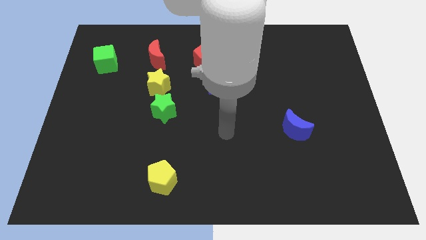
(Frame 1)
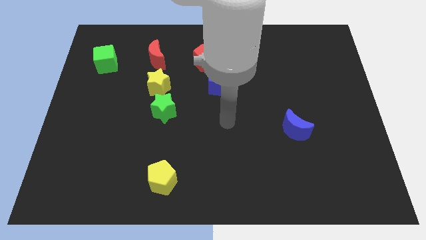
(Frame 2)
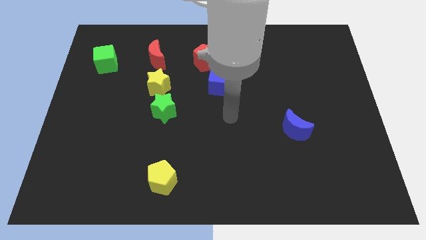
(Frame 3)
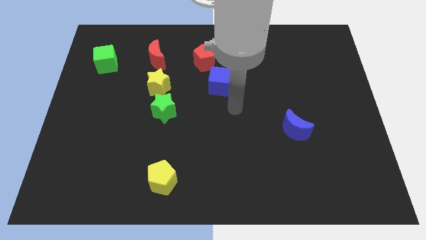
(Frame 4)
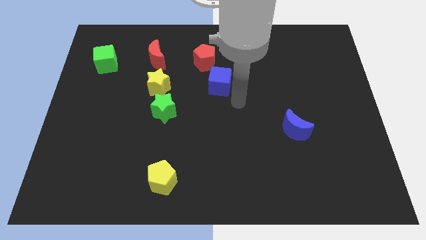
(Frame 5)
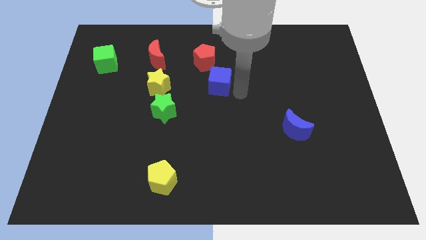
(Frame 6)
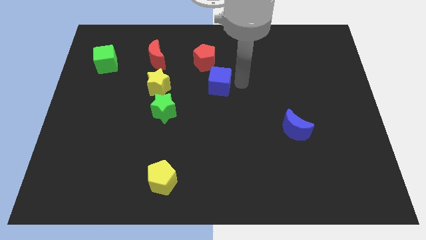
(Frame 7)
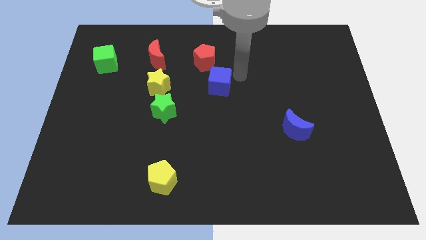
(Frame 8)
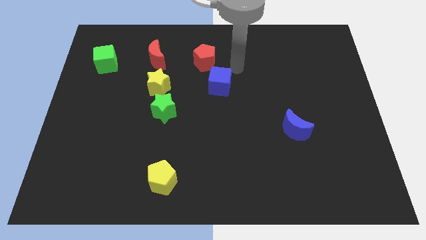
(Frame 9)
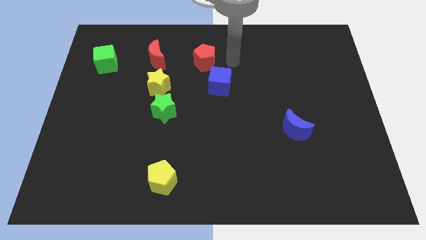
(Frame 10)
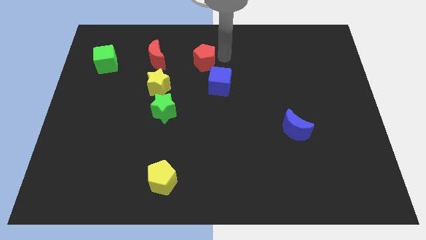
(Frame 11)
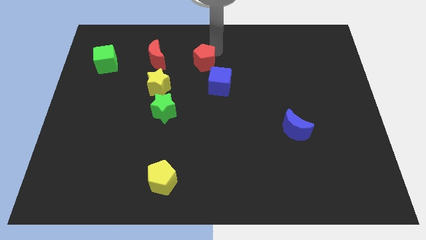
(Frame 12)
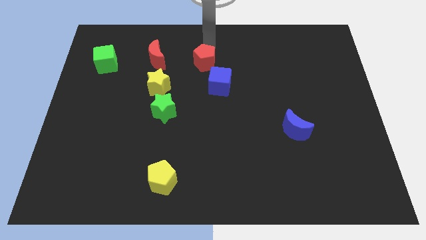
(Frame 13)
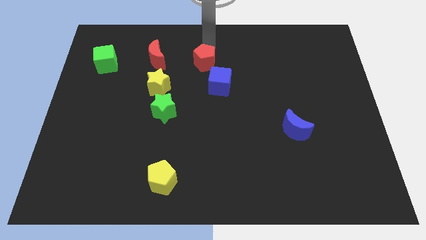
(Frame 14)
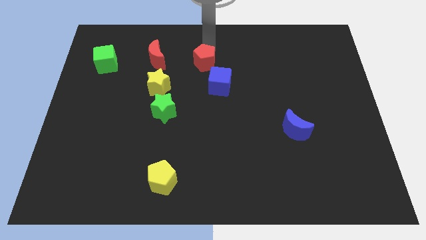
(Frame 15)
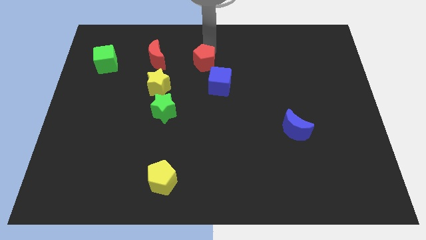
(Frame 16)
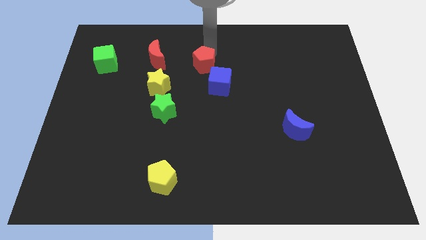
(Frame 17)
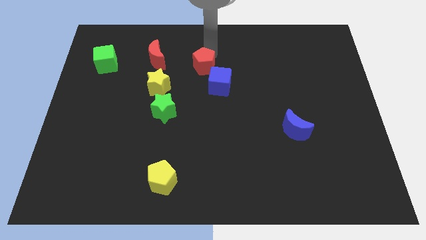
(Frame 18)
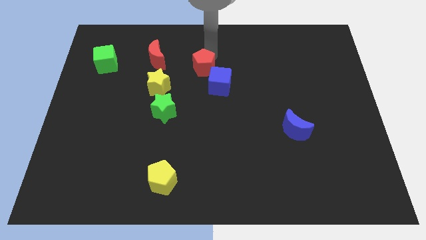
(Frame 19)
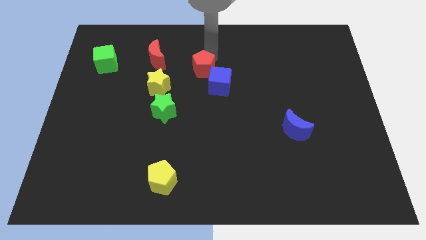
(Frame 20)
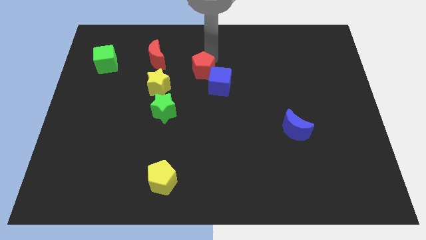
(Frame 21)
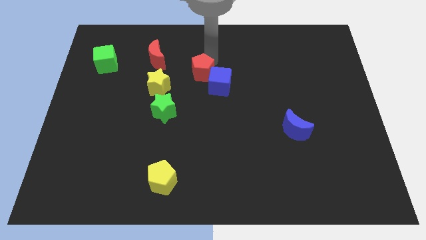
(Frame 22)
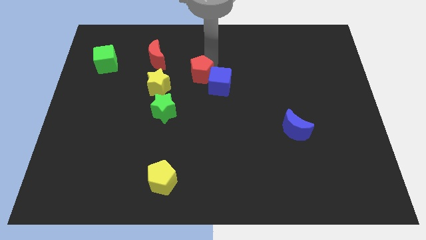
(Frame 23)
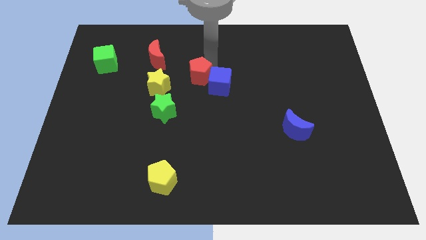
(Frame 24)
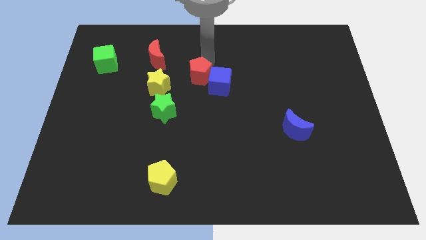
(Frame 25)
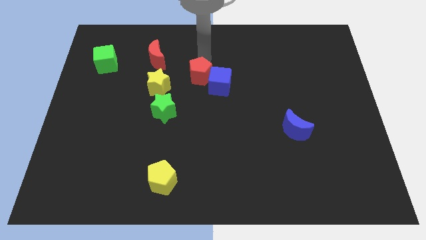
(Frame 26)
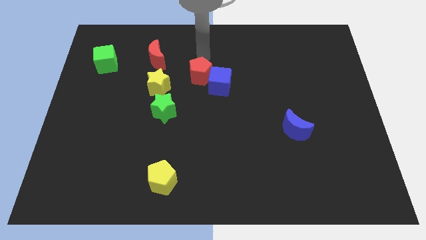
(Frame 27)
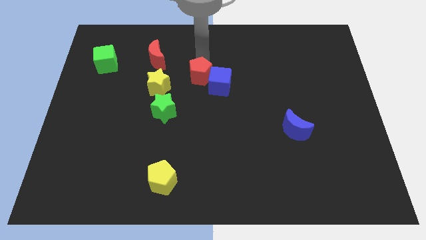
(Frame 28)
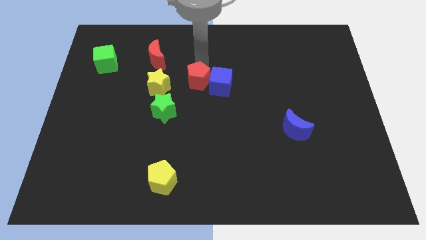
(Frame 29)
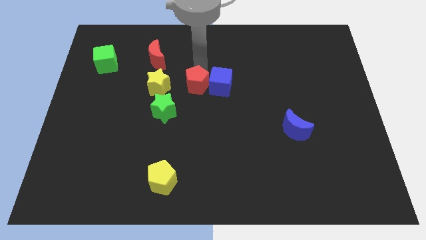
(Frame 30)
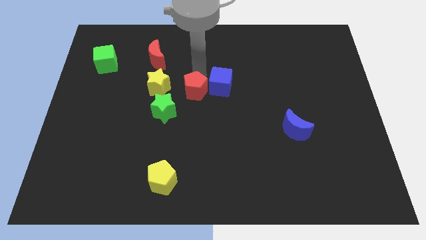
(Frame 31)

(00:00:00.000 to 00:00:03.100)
slide the red pentagon slightly downwards and then to the left

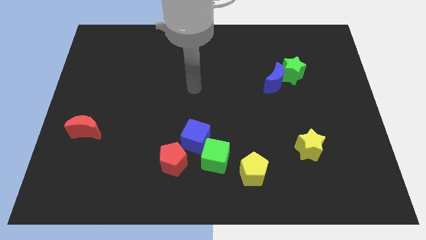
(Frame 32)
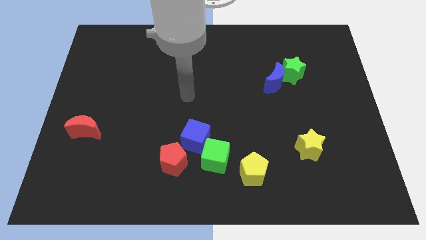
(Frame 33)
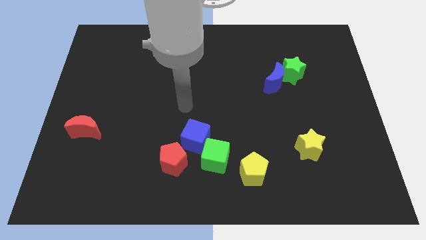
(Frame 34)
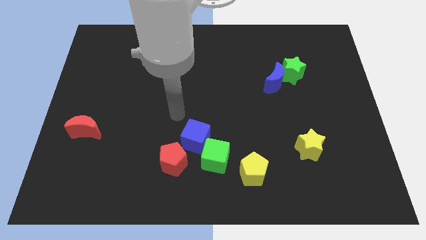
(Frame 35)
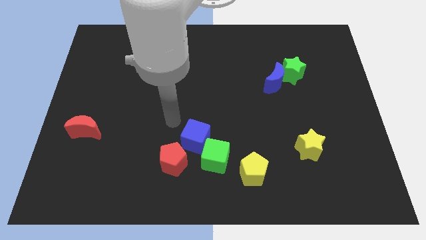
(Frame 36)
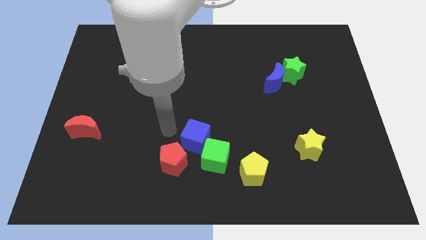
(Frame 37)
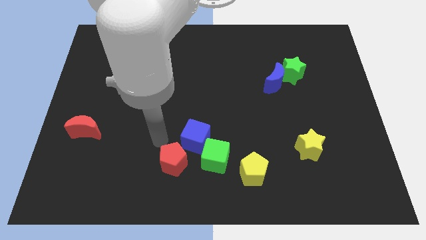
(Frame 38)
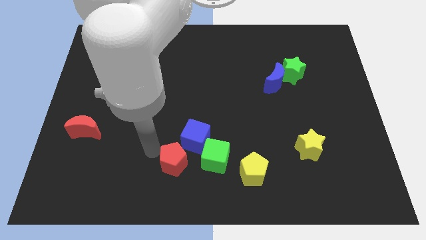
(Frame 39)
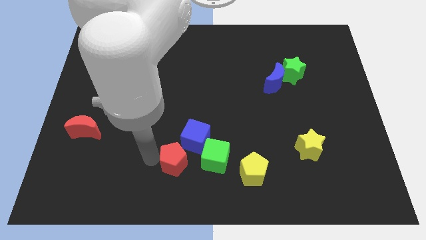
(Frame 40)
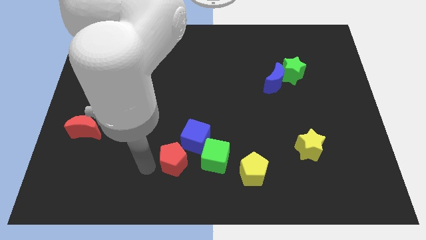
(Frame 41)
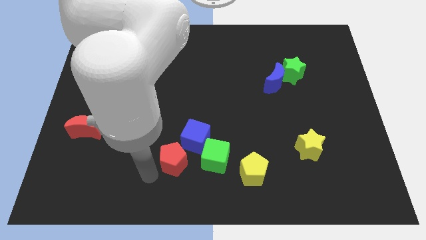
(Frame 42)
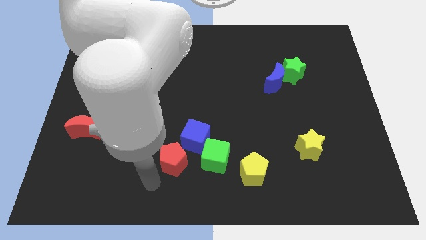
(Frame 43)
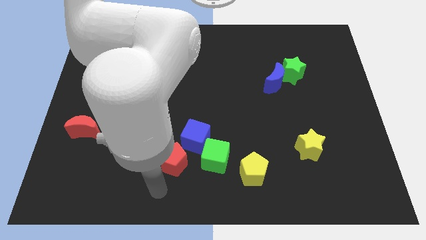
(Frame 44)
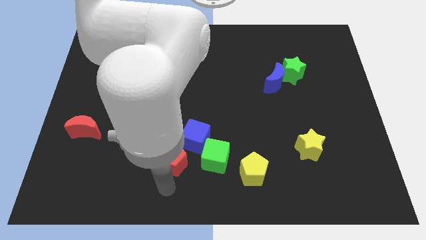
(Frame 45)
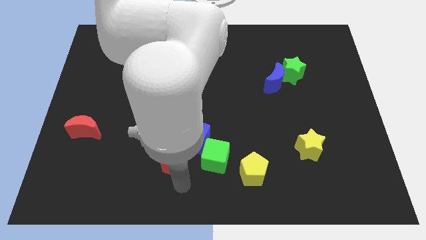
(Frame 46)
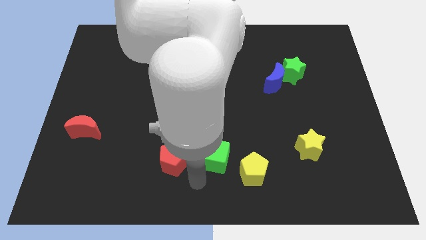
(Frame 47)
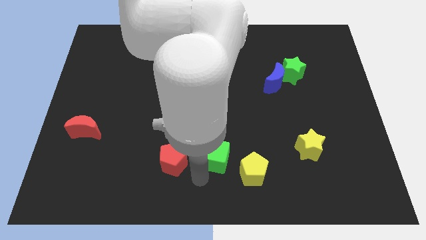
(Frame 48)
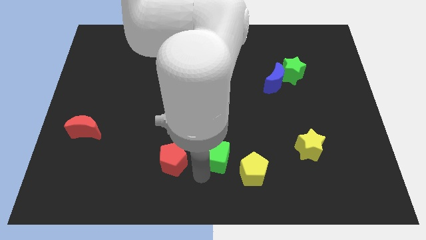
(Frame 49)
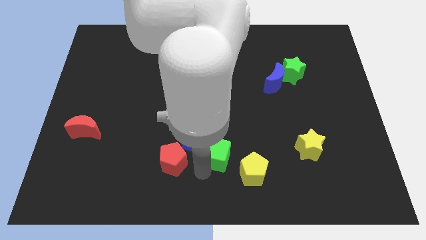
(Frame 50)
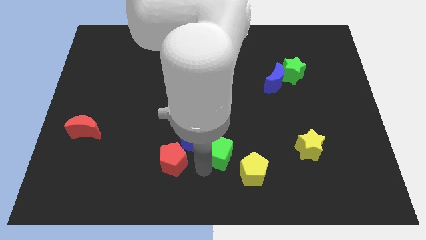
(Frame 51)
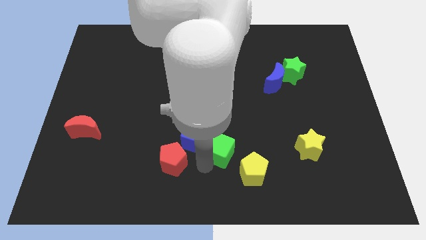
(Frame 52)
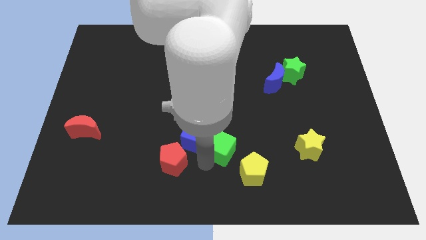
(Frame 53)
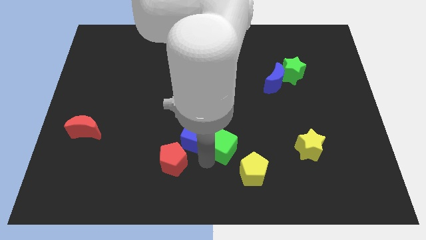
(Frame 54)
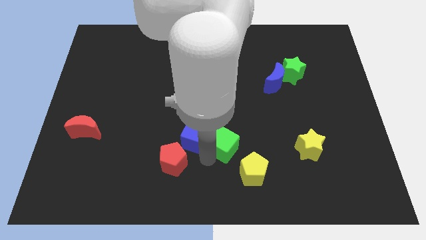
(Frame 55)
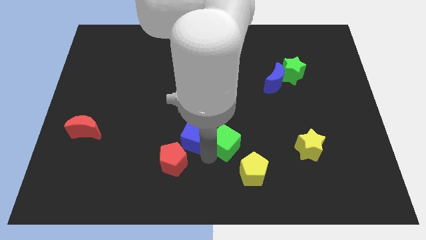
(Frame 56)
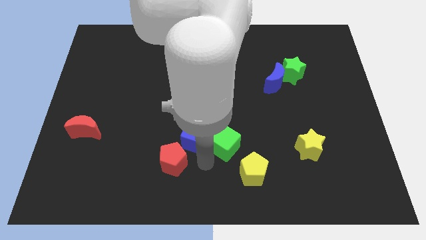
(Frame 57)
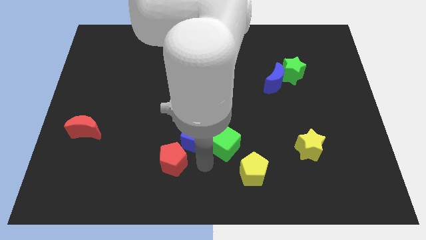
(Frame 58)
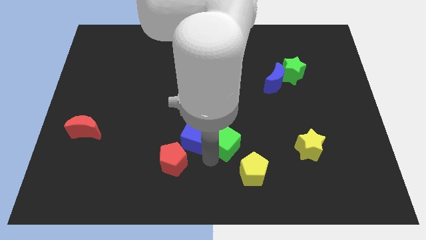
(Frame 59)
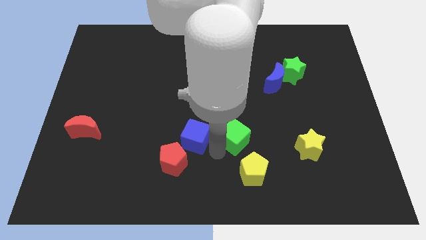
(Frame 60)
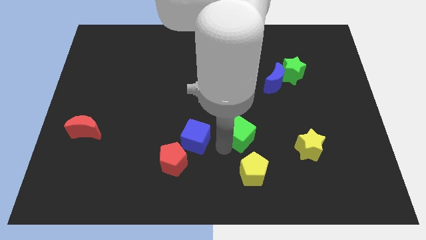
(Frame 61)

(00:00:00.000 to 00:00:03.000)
move the green cube up and then right a little

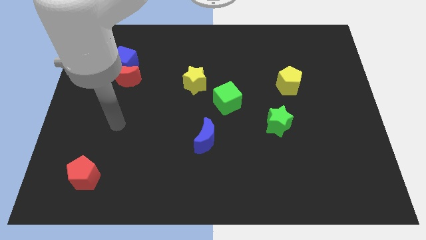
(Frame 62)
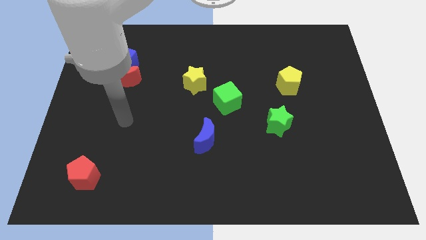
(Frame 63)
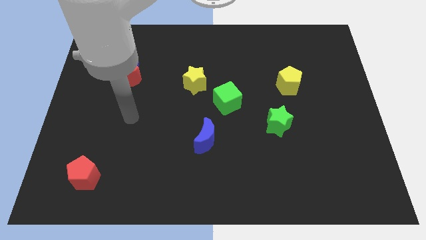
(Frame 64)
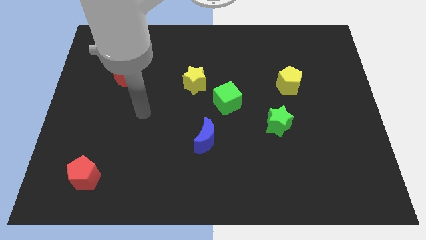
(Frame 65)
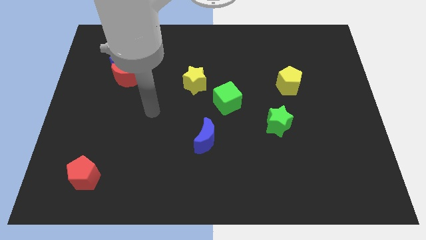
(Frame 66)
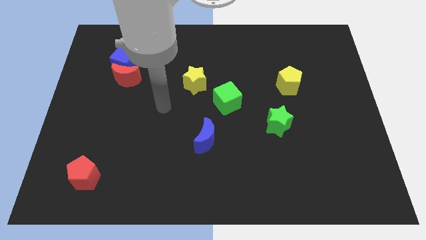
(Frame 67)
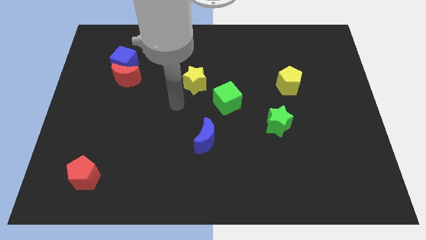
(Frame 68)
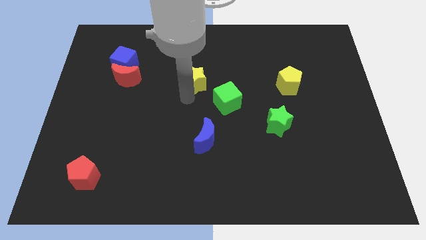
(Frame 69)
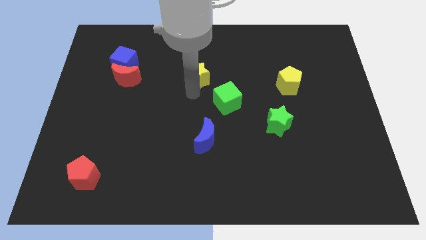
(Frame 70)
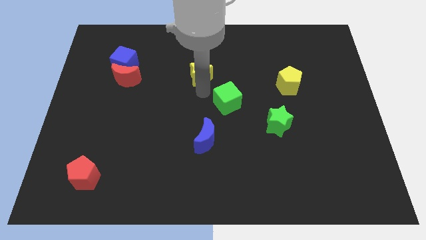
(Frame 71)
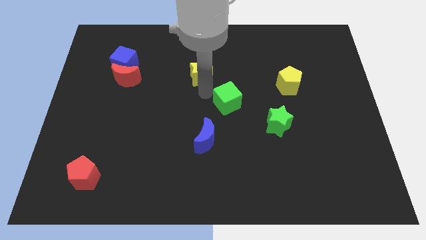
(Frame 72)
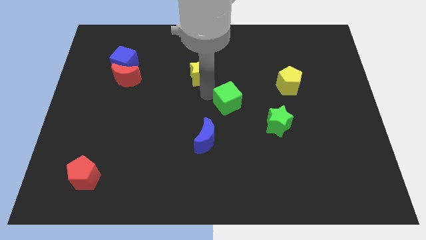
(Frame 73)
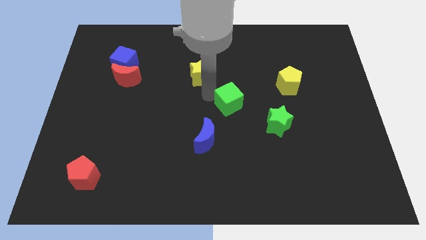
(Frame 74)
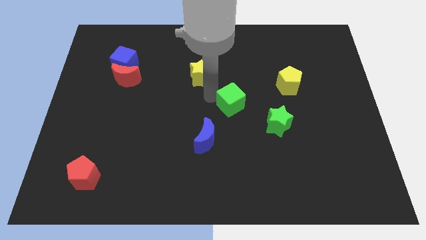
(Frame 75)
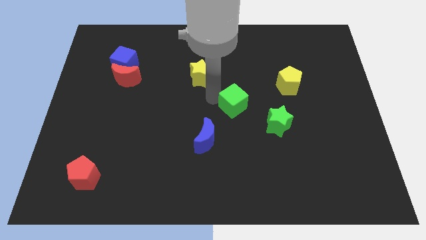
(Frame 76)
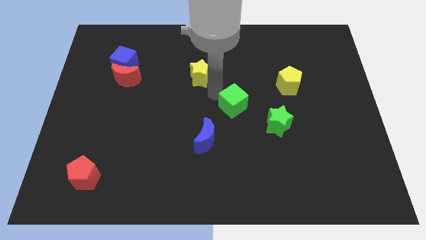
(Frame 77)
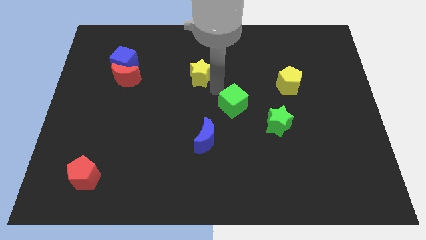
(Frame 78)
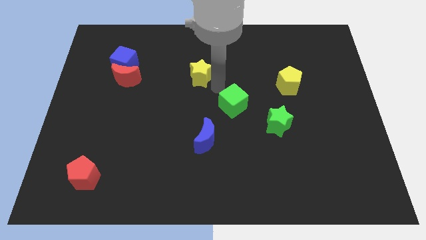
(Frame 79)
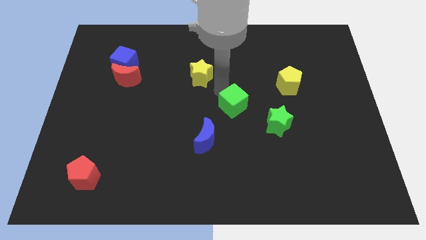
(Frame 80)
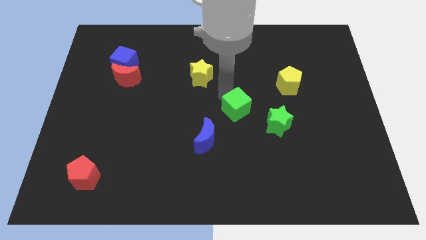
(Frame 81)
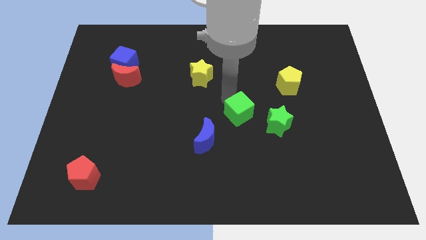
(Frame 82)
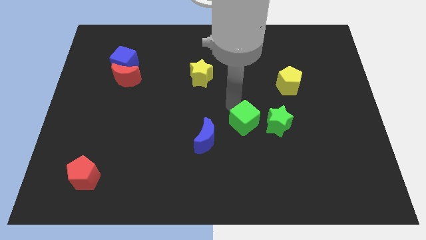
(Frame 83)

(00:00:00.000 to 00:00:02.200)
move the green cube downwards and then right somewhat
